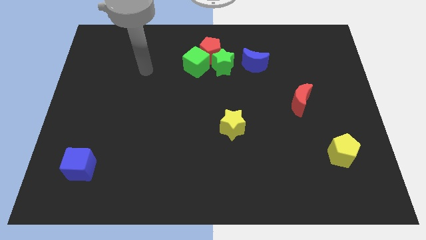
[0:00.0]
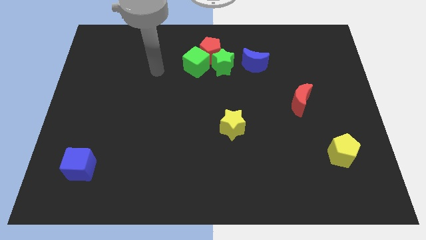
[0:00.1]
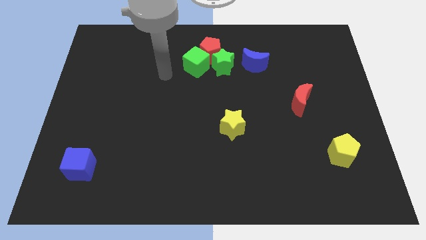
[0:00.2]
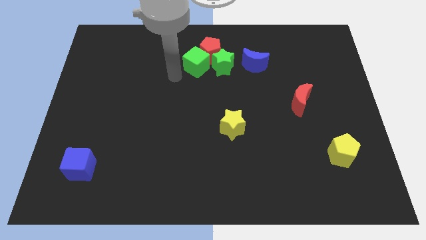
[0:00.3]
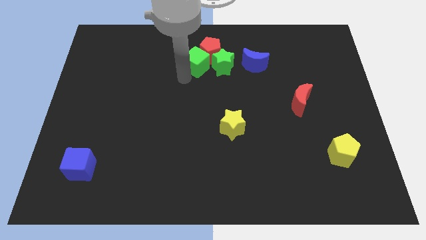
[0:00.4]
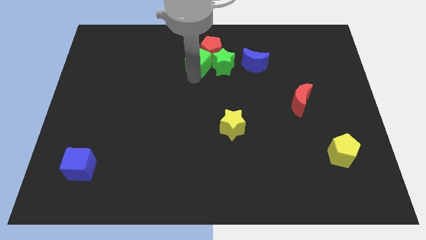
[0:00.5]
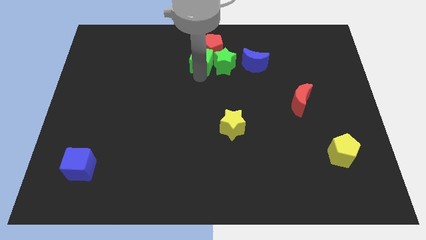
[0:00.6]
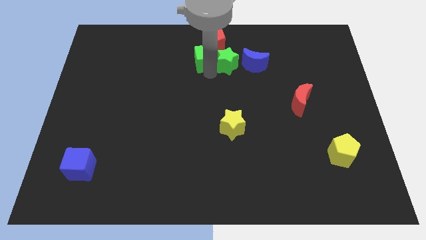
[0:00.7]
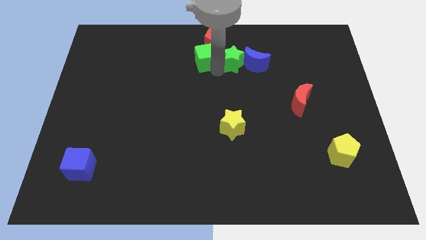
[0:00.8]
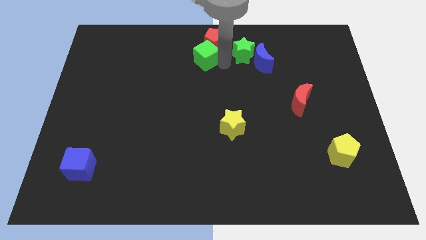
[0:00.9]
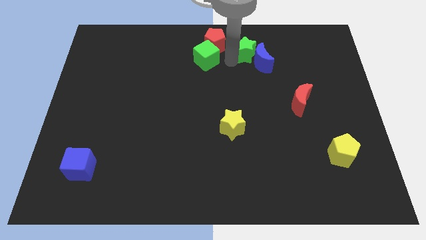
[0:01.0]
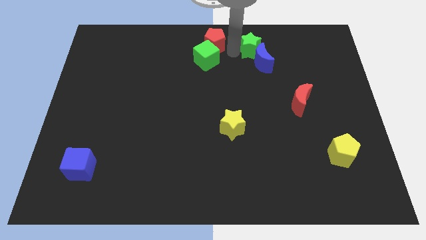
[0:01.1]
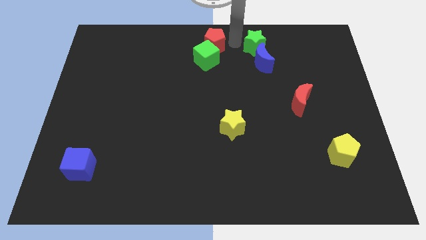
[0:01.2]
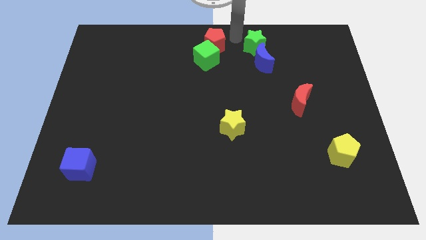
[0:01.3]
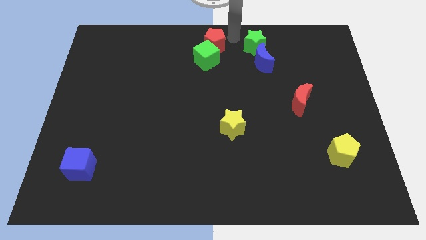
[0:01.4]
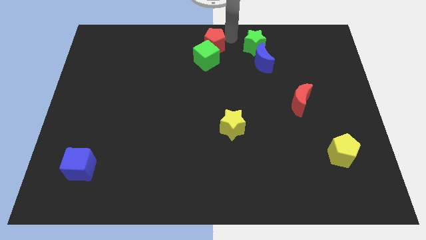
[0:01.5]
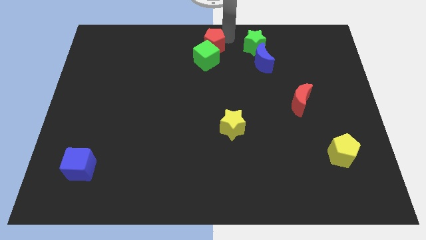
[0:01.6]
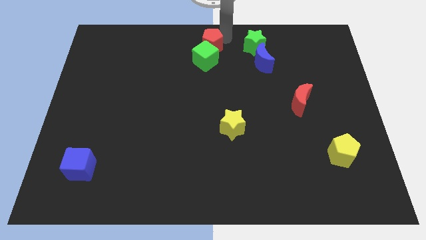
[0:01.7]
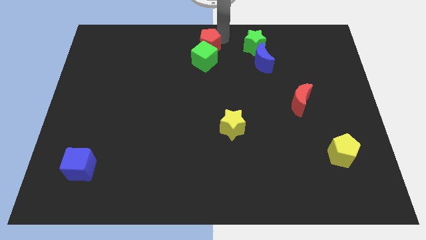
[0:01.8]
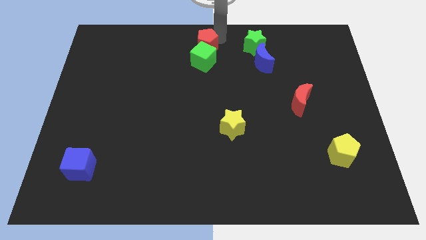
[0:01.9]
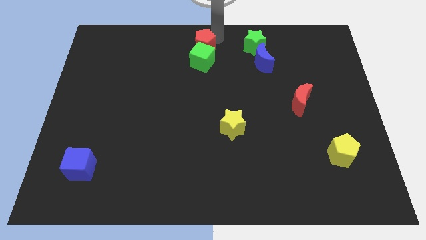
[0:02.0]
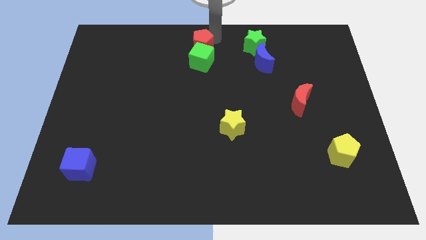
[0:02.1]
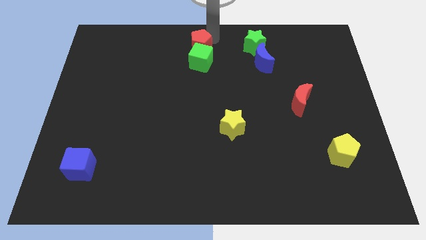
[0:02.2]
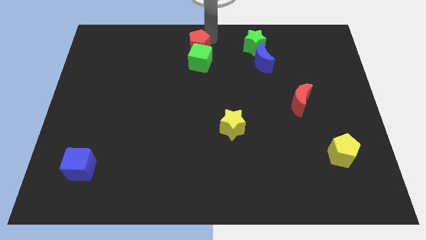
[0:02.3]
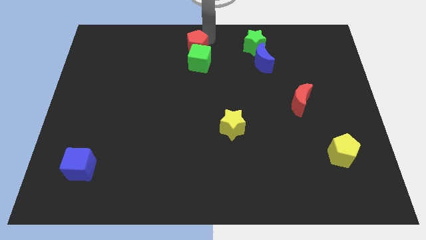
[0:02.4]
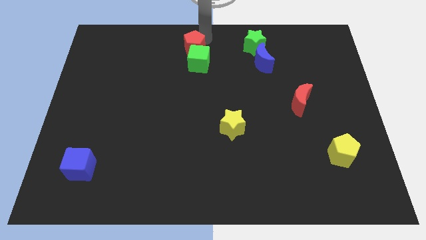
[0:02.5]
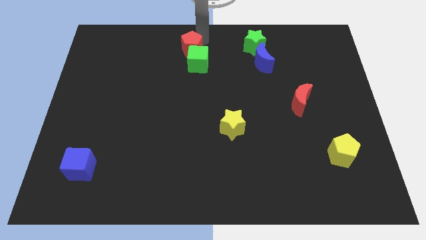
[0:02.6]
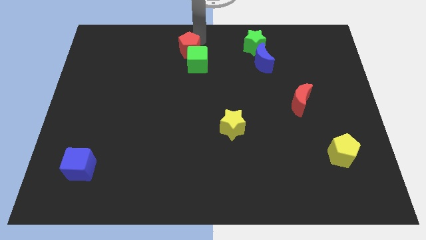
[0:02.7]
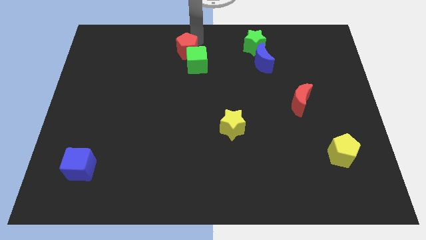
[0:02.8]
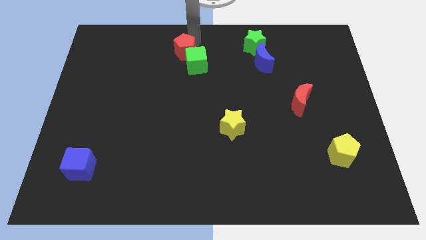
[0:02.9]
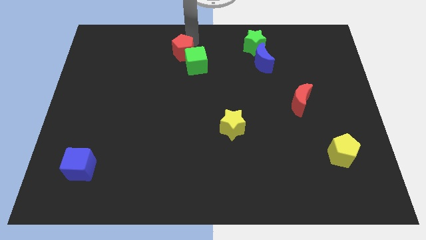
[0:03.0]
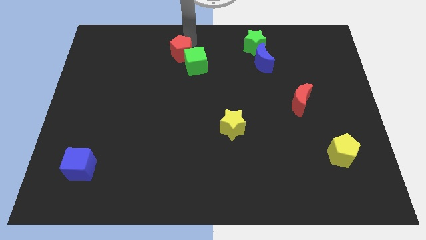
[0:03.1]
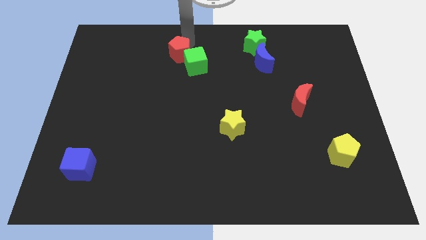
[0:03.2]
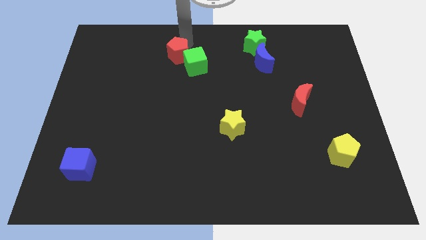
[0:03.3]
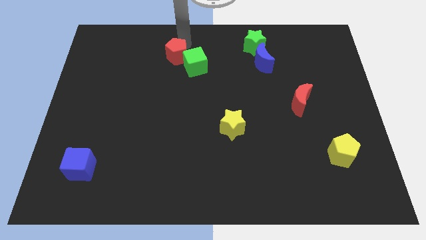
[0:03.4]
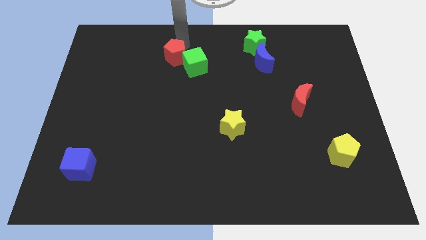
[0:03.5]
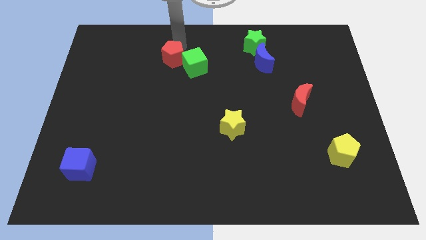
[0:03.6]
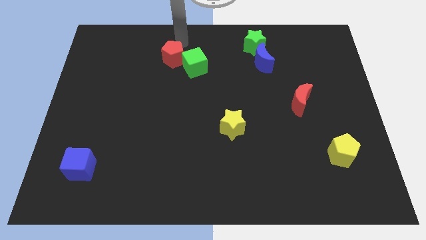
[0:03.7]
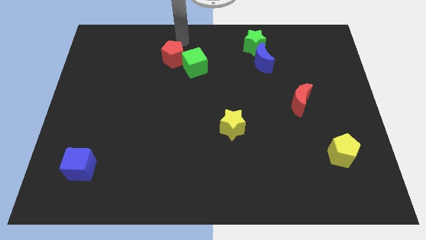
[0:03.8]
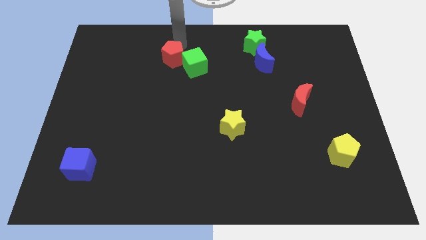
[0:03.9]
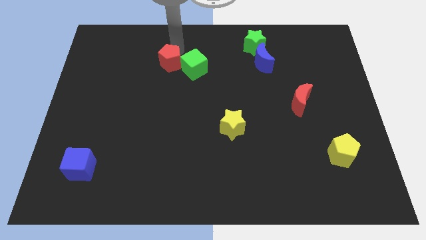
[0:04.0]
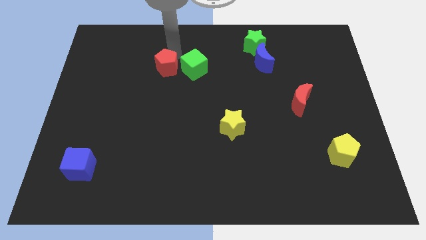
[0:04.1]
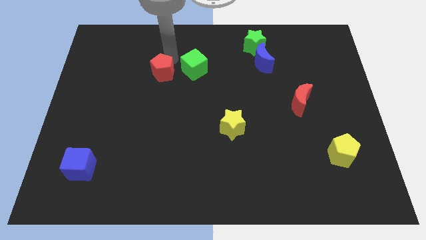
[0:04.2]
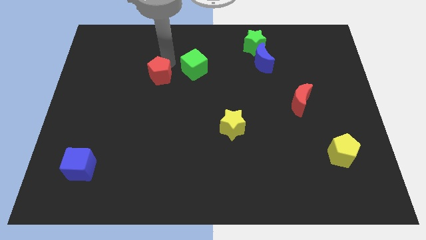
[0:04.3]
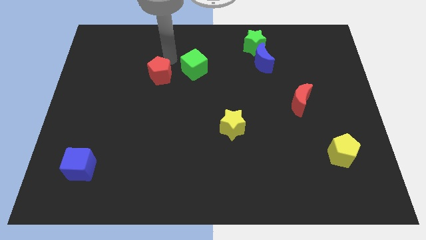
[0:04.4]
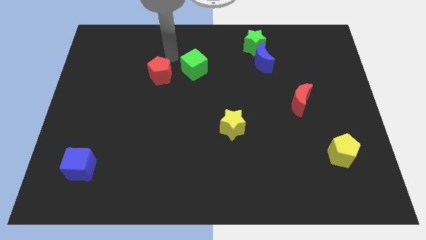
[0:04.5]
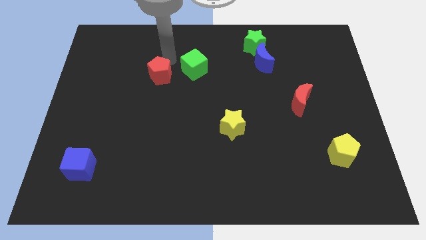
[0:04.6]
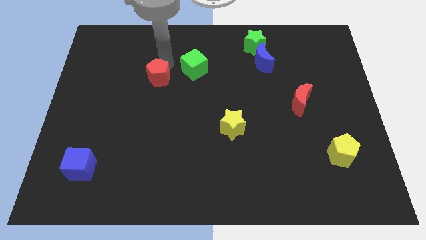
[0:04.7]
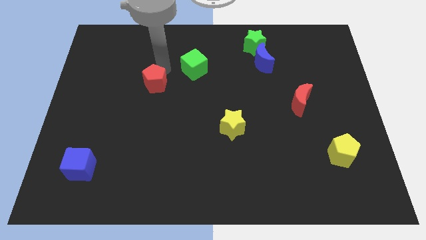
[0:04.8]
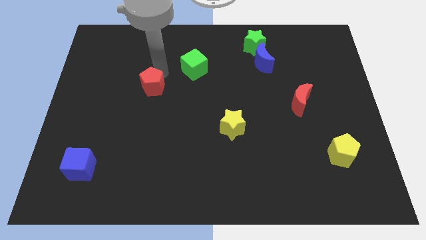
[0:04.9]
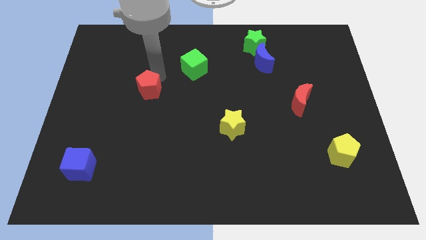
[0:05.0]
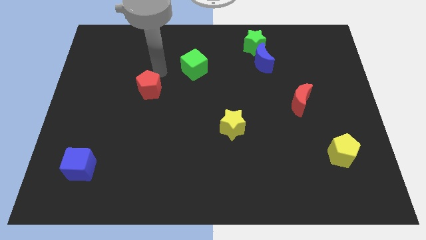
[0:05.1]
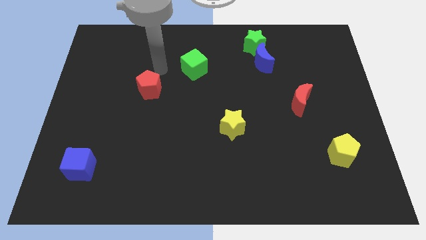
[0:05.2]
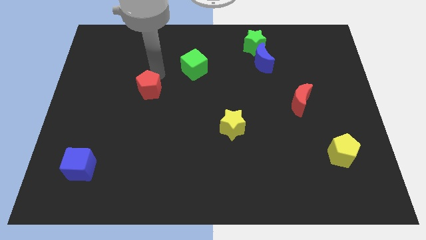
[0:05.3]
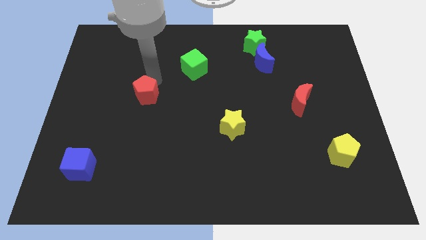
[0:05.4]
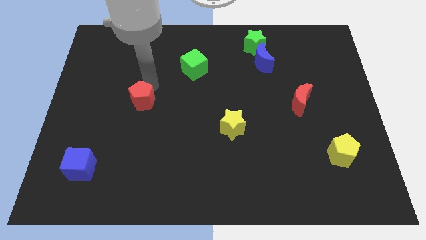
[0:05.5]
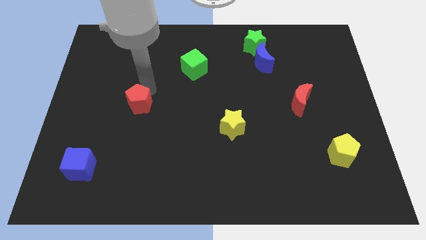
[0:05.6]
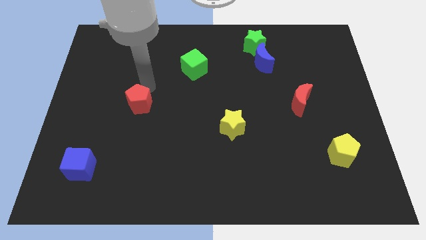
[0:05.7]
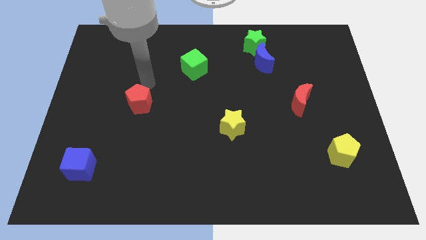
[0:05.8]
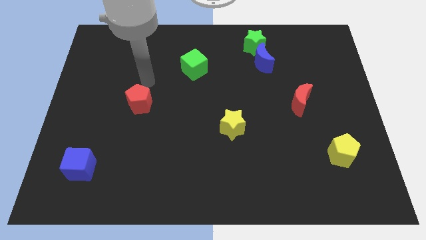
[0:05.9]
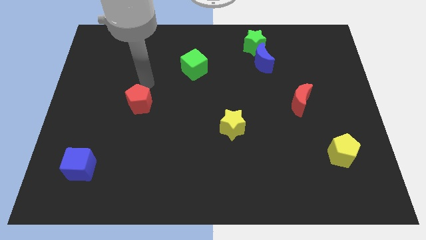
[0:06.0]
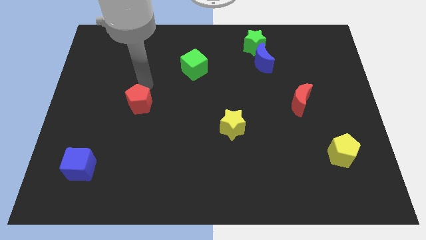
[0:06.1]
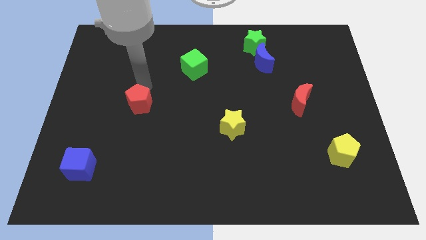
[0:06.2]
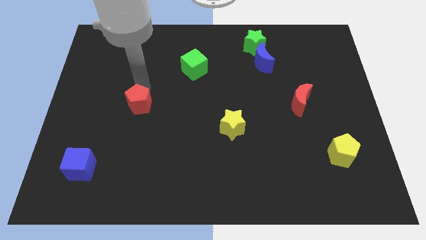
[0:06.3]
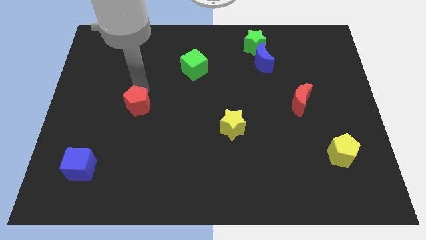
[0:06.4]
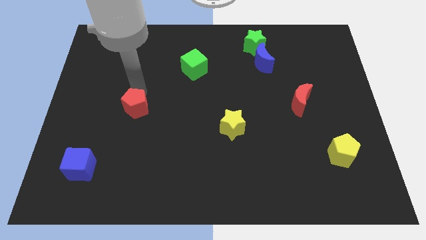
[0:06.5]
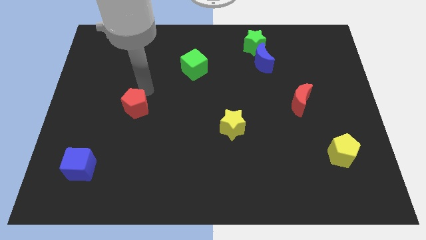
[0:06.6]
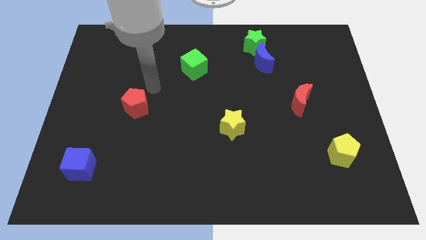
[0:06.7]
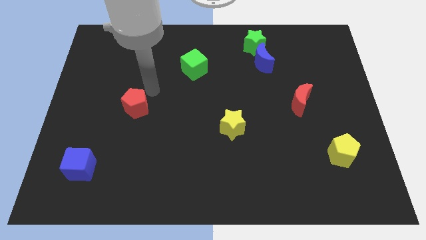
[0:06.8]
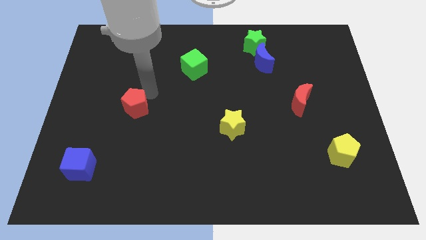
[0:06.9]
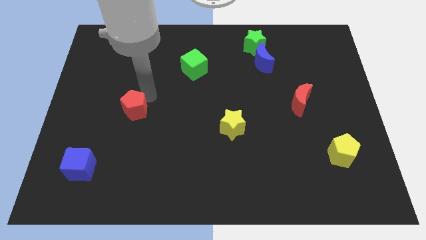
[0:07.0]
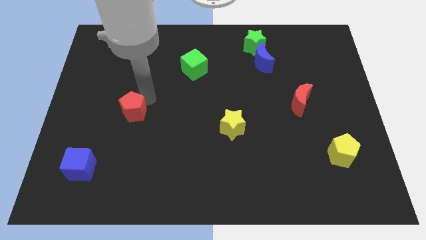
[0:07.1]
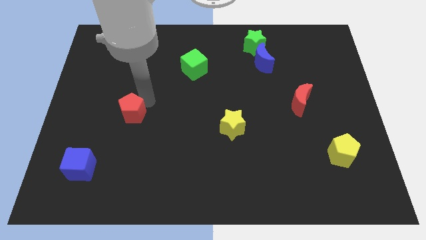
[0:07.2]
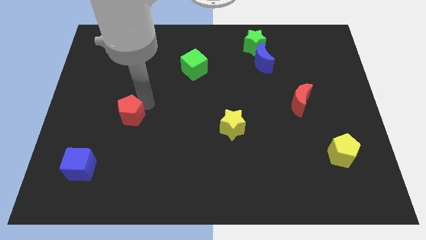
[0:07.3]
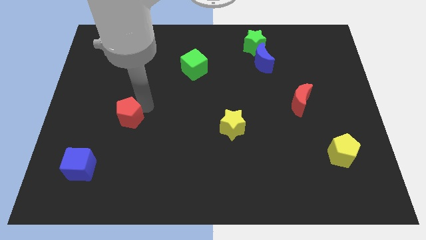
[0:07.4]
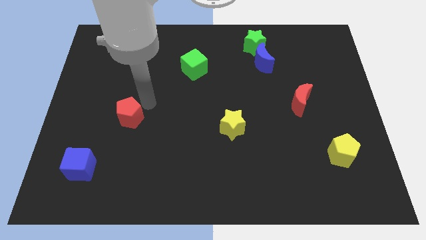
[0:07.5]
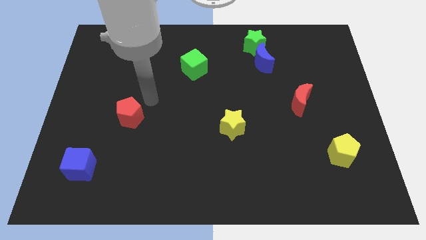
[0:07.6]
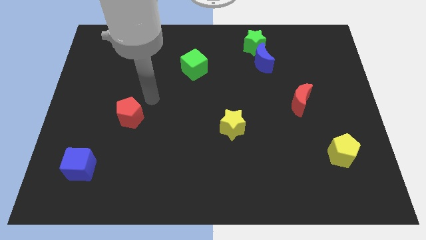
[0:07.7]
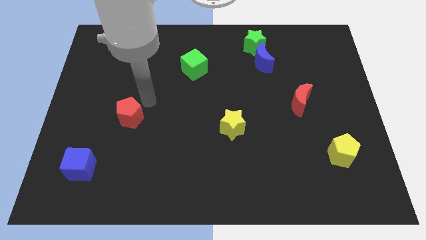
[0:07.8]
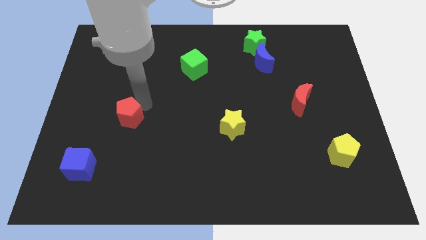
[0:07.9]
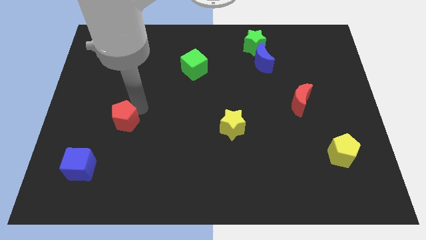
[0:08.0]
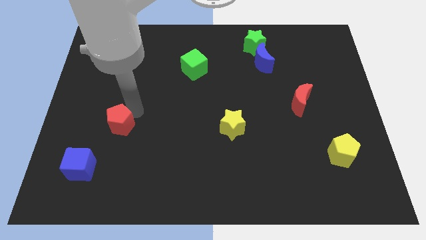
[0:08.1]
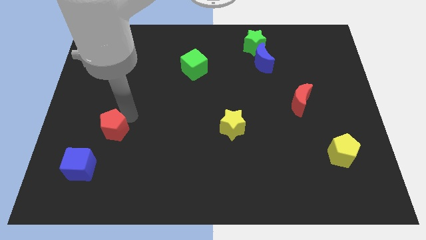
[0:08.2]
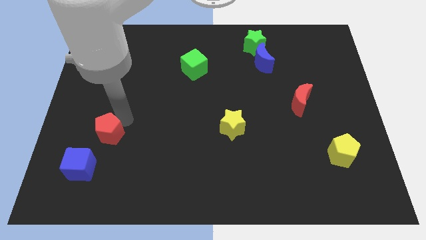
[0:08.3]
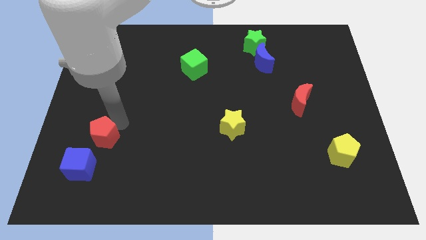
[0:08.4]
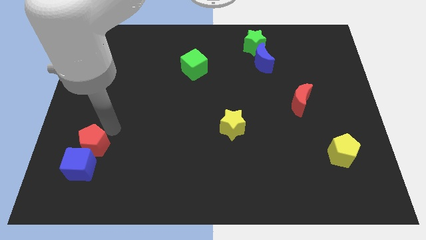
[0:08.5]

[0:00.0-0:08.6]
push the red pentagon to the blue cube
